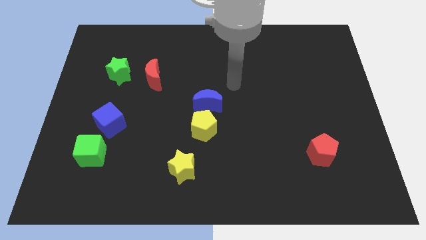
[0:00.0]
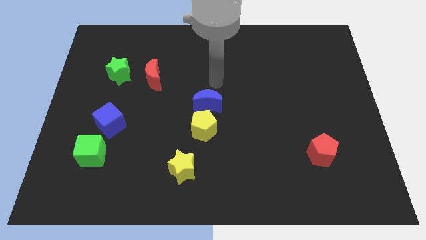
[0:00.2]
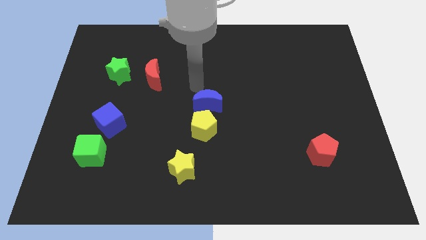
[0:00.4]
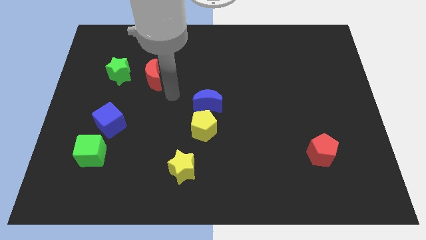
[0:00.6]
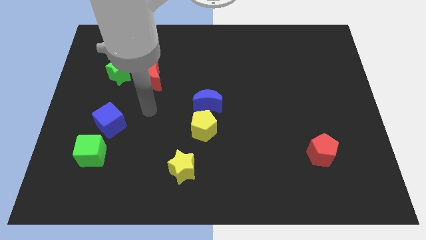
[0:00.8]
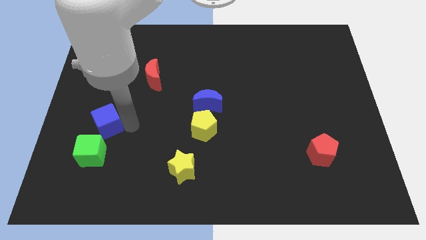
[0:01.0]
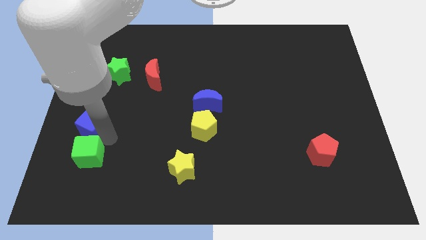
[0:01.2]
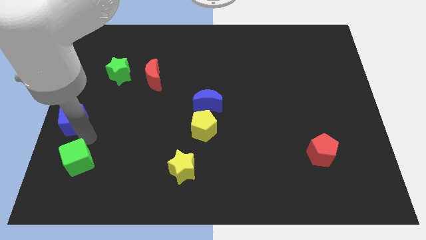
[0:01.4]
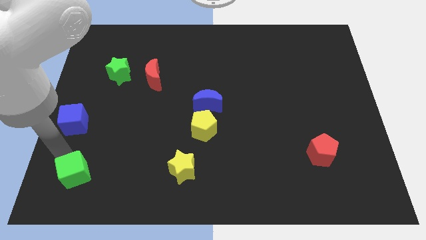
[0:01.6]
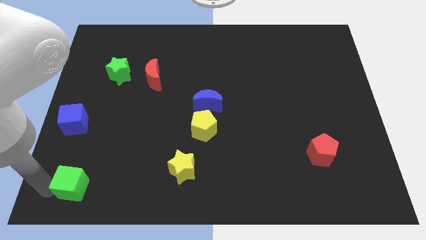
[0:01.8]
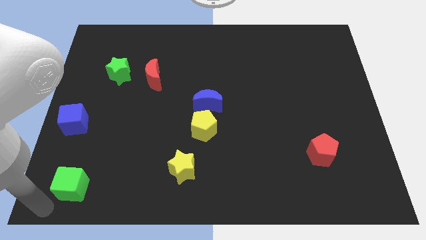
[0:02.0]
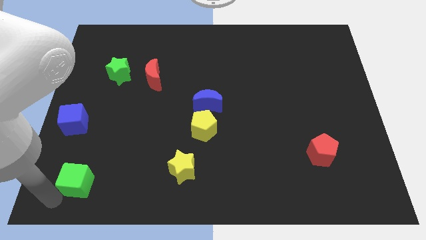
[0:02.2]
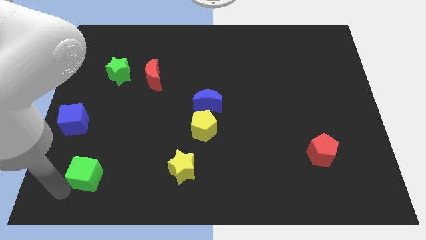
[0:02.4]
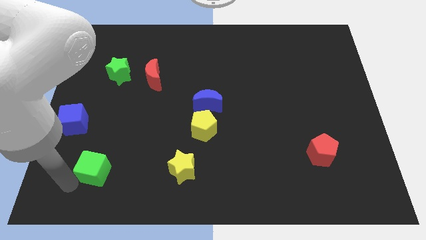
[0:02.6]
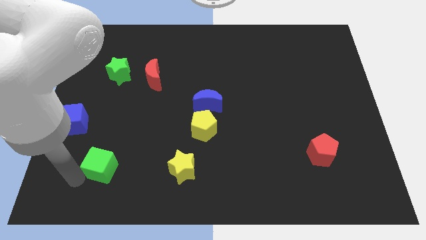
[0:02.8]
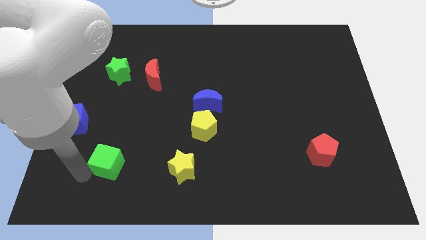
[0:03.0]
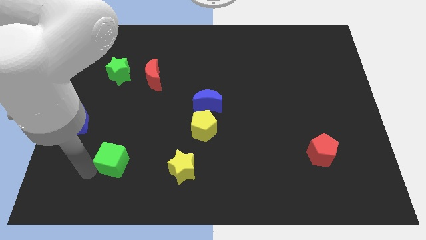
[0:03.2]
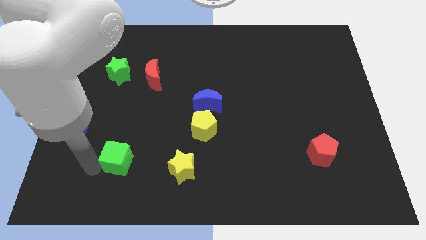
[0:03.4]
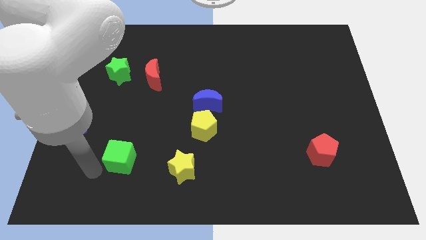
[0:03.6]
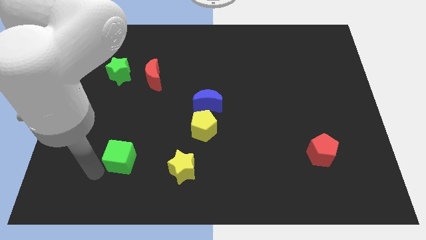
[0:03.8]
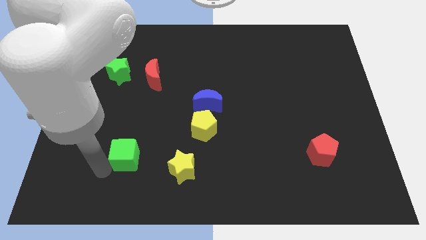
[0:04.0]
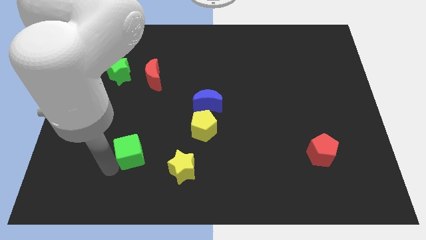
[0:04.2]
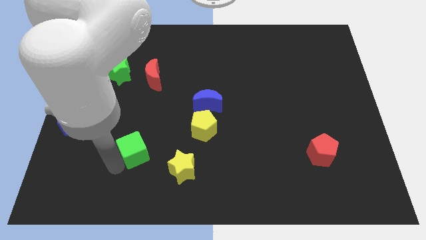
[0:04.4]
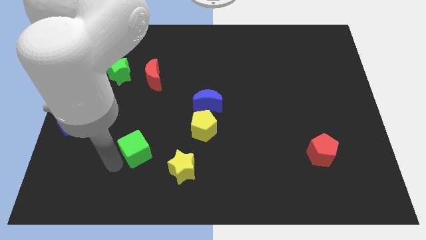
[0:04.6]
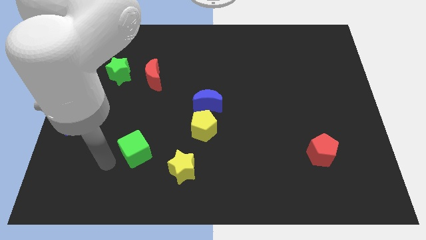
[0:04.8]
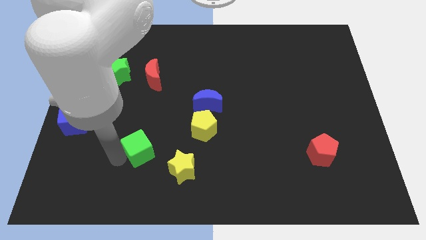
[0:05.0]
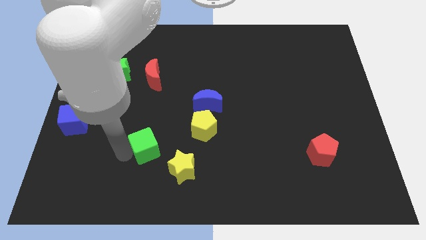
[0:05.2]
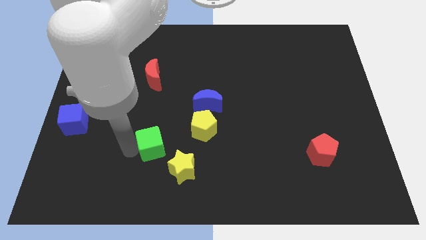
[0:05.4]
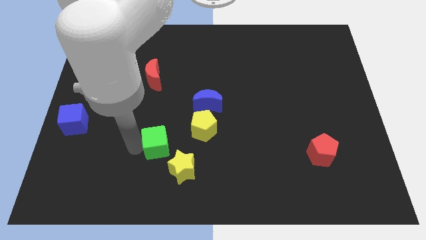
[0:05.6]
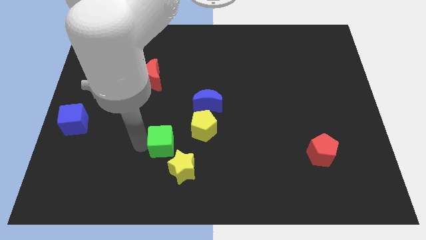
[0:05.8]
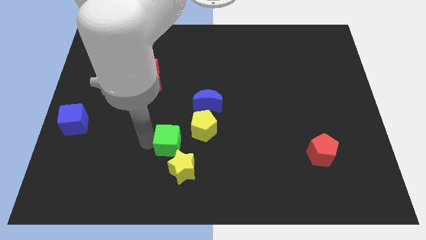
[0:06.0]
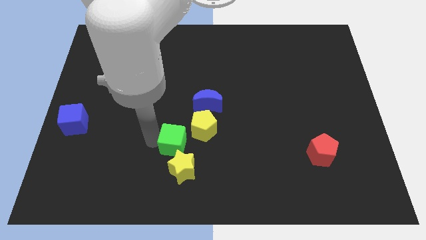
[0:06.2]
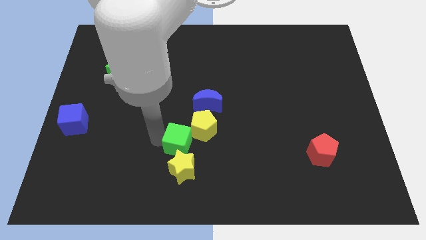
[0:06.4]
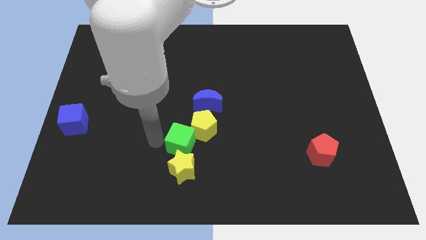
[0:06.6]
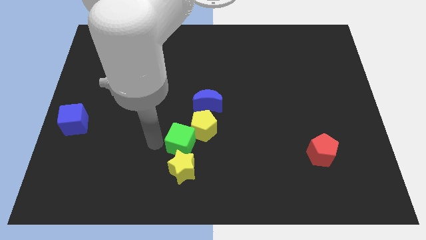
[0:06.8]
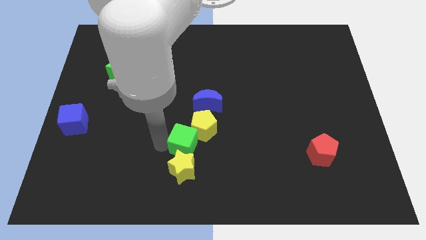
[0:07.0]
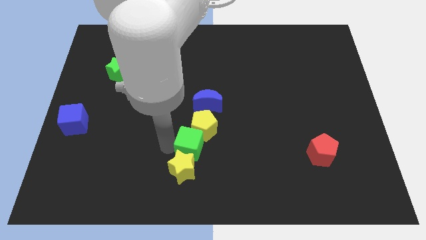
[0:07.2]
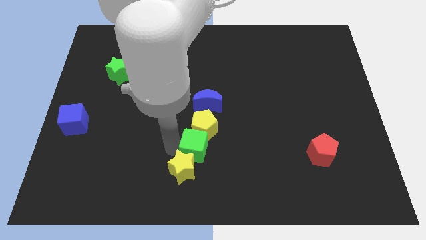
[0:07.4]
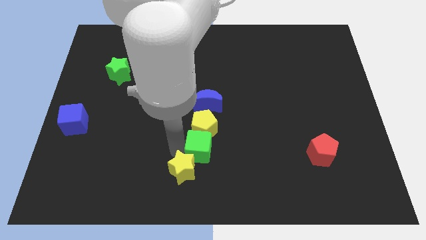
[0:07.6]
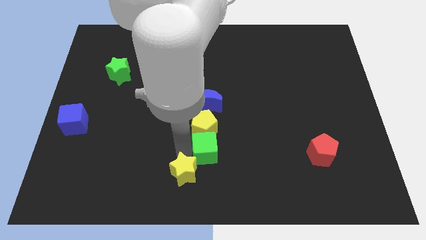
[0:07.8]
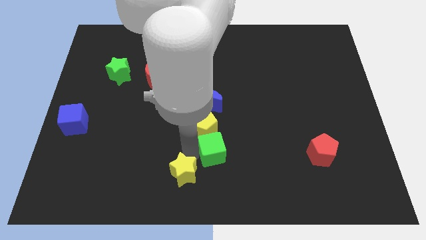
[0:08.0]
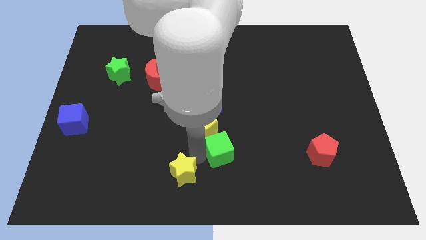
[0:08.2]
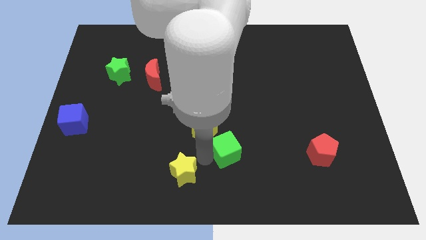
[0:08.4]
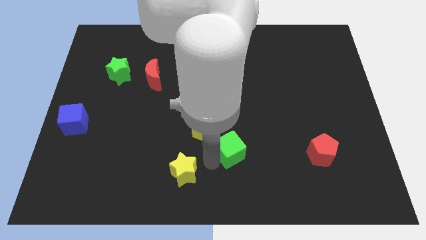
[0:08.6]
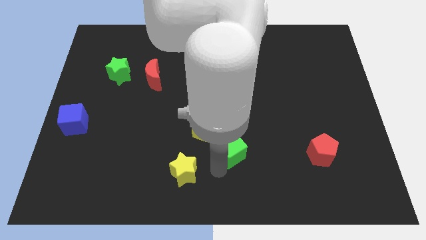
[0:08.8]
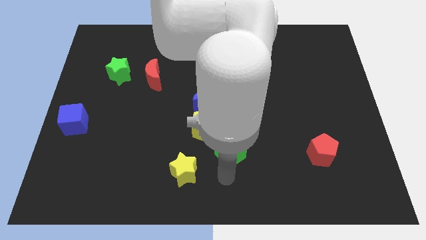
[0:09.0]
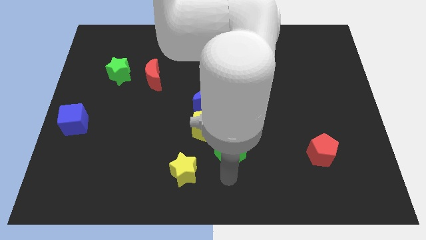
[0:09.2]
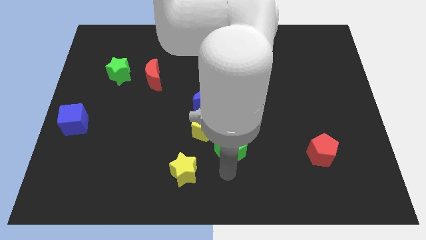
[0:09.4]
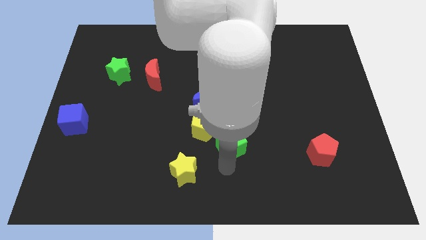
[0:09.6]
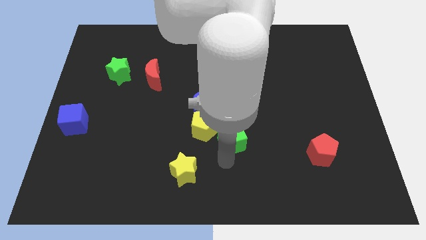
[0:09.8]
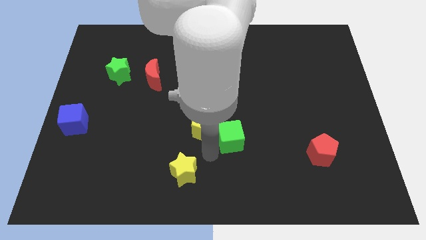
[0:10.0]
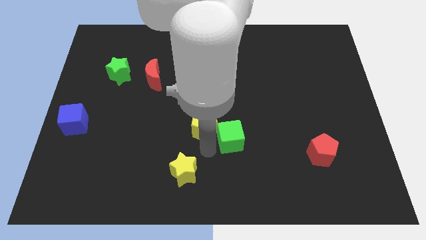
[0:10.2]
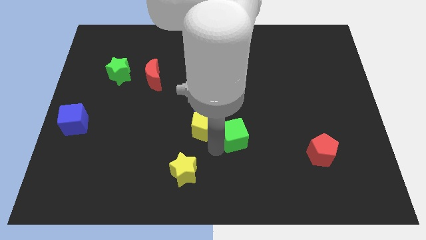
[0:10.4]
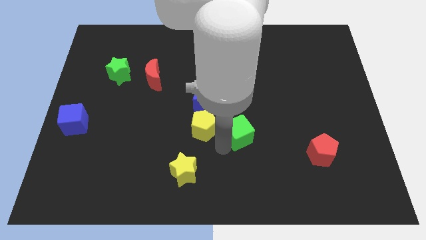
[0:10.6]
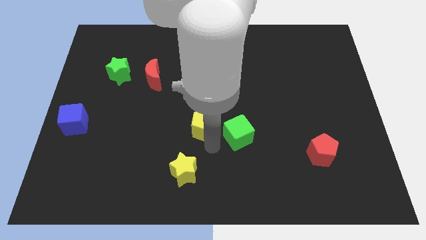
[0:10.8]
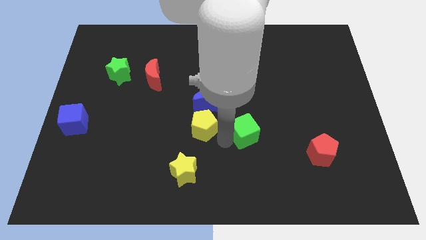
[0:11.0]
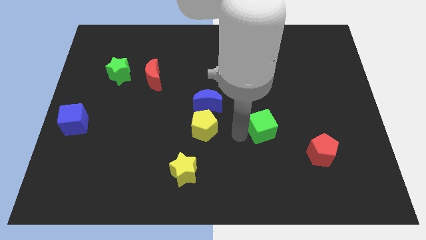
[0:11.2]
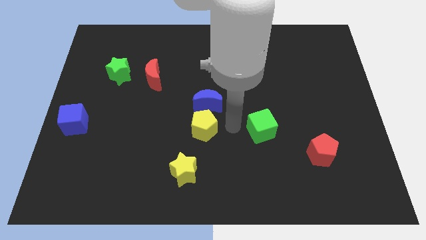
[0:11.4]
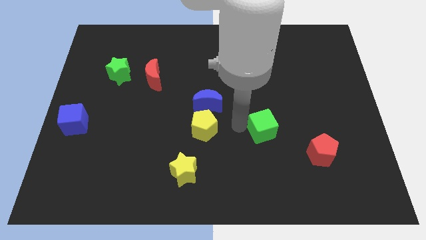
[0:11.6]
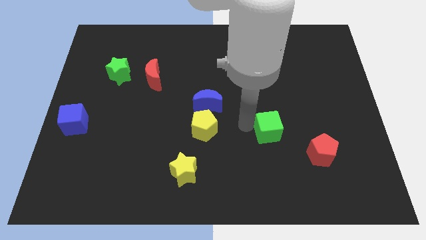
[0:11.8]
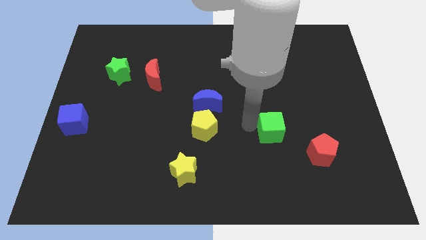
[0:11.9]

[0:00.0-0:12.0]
slide the green cube to the top left side of the red pentagon
